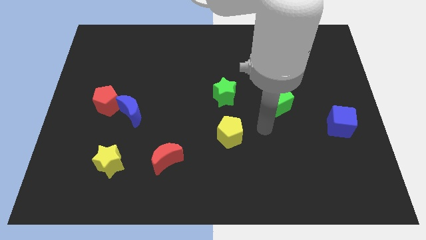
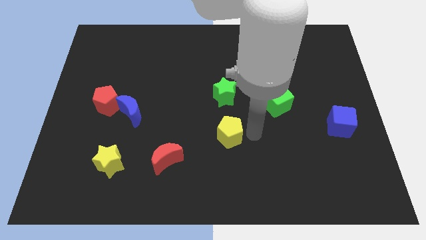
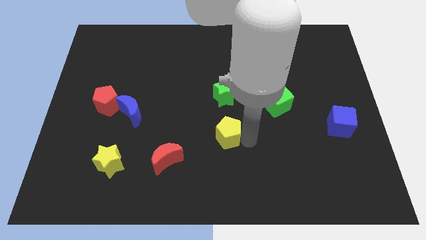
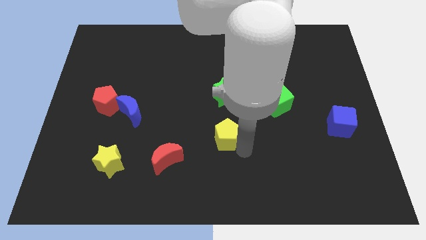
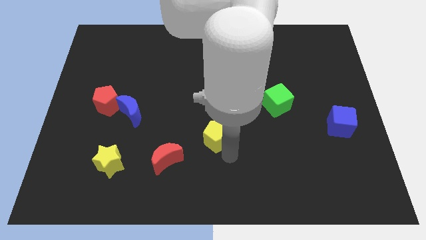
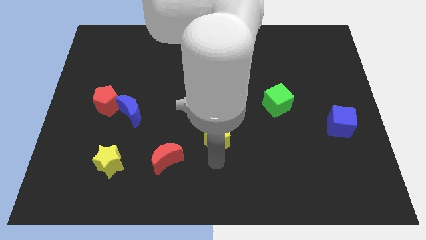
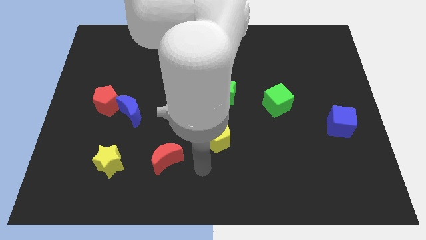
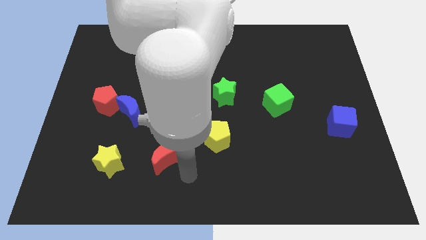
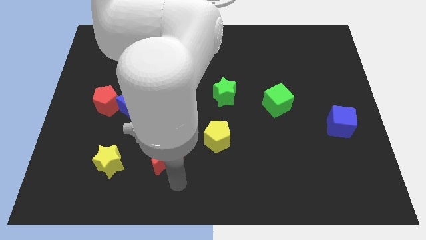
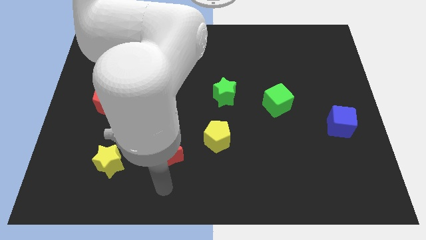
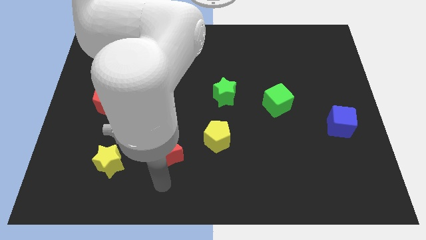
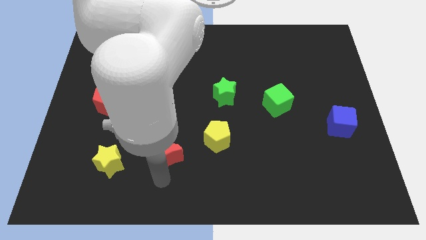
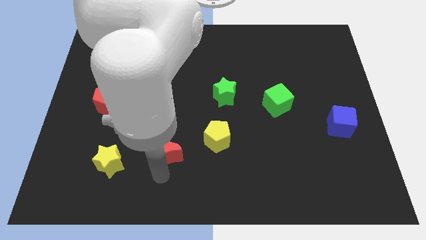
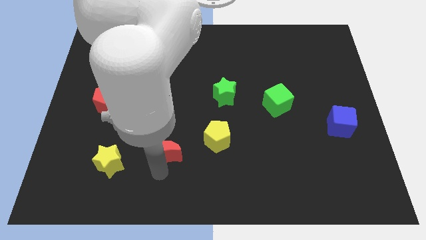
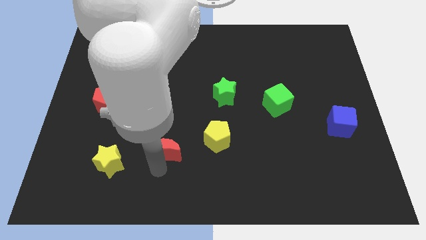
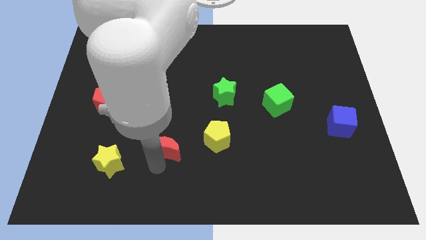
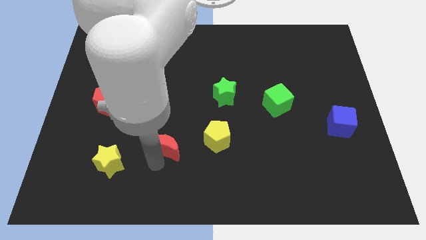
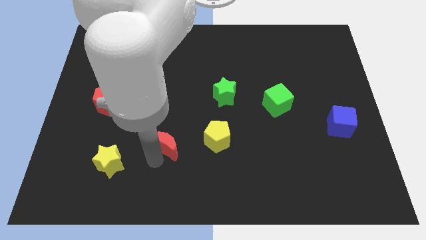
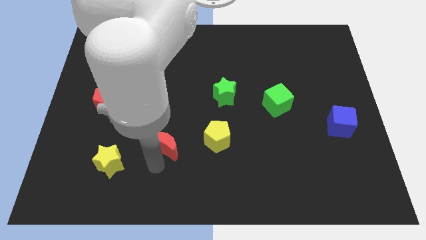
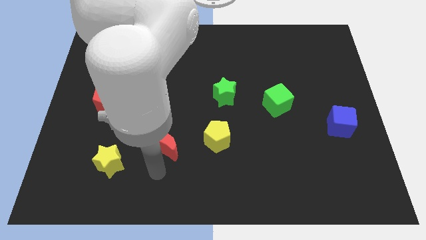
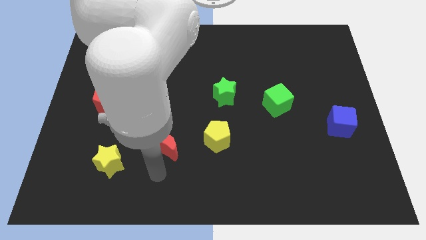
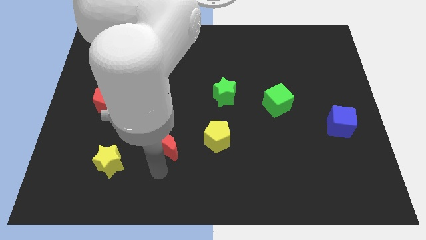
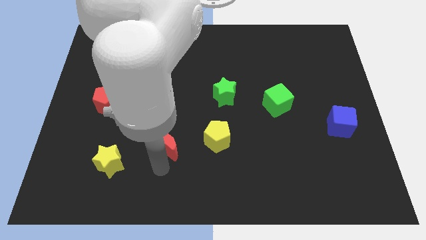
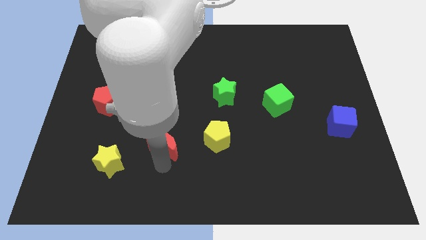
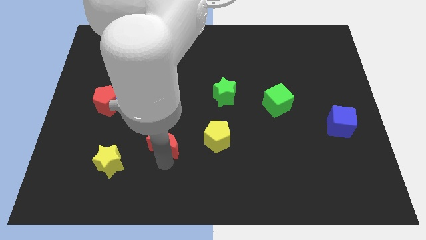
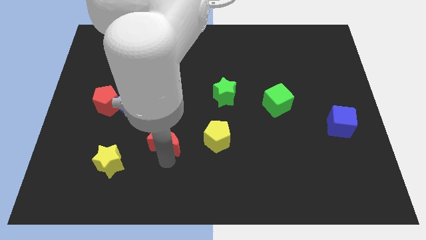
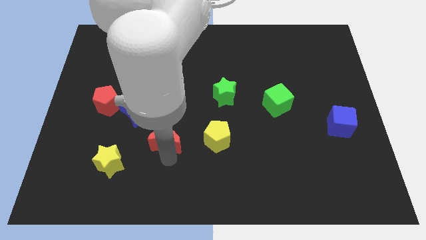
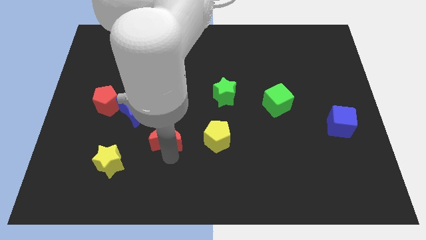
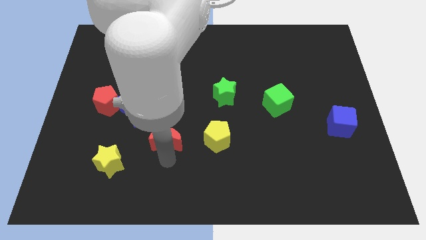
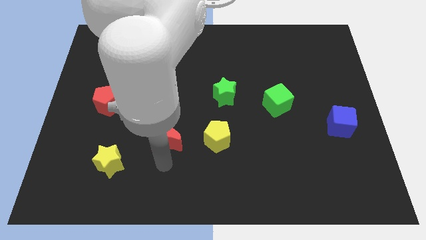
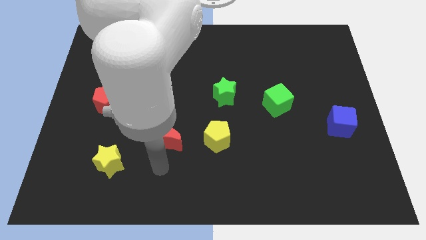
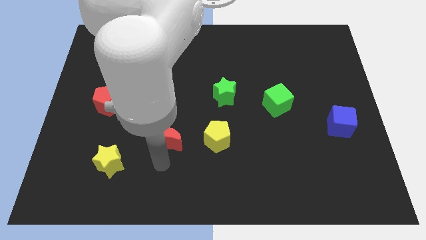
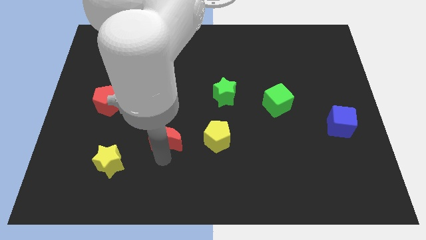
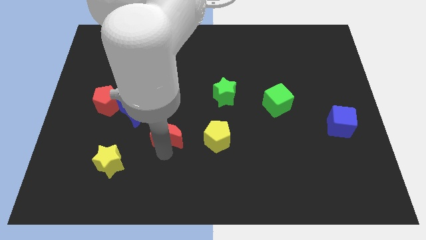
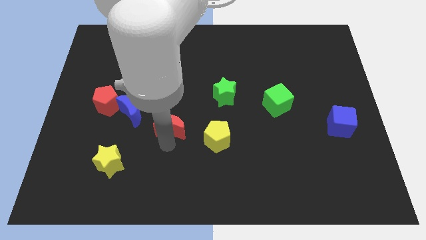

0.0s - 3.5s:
push the red moon slightly upwards

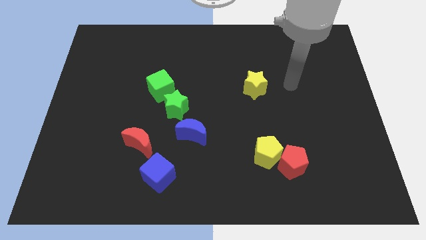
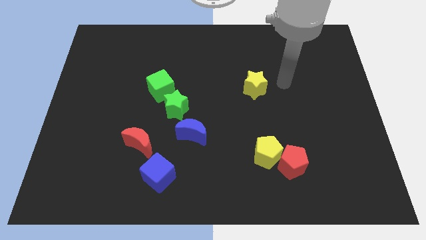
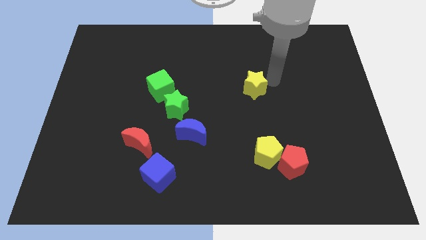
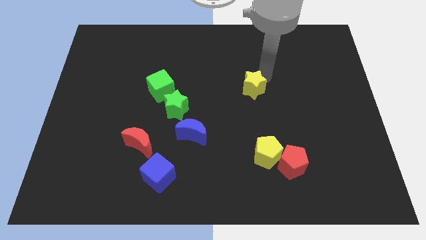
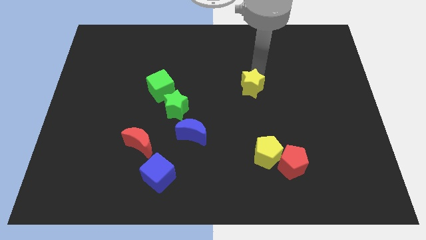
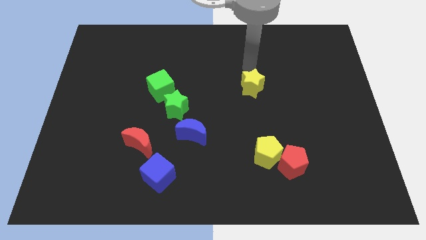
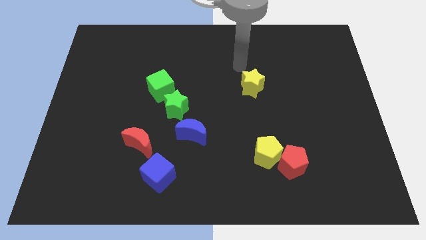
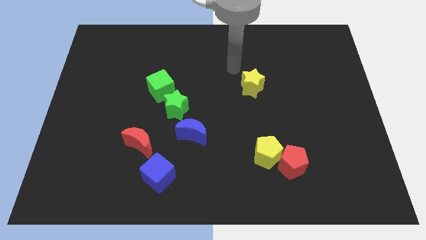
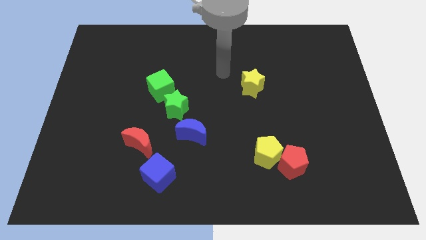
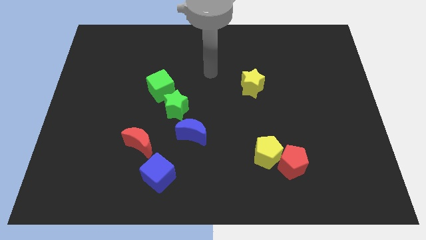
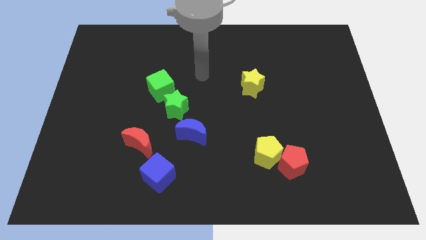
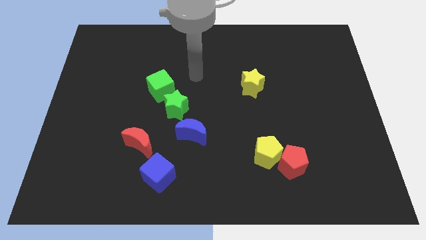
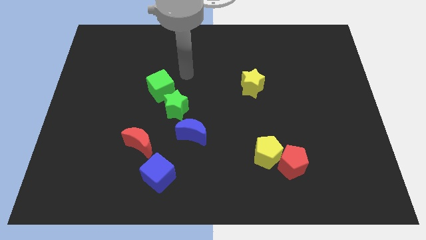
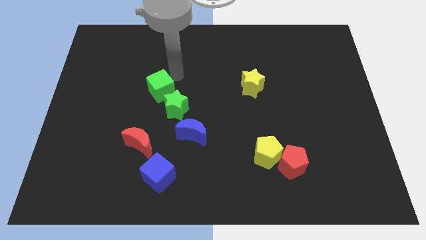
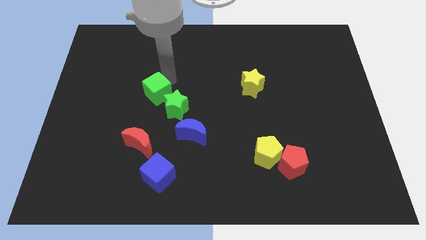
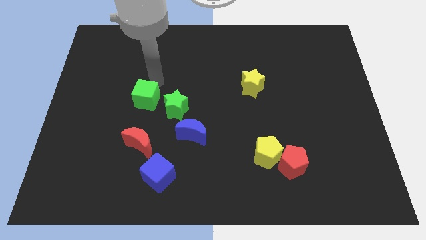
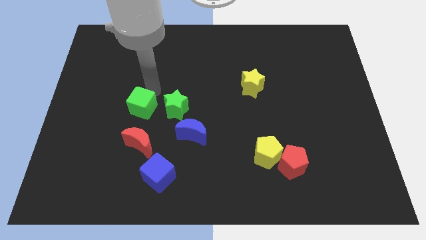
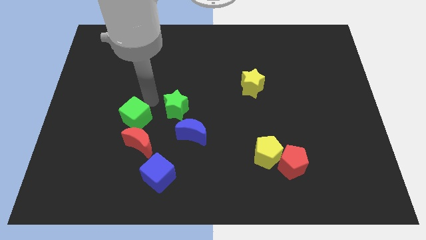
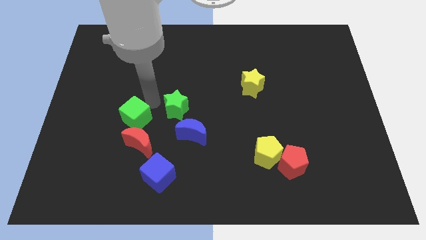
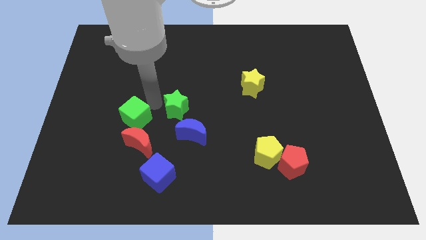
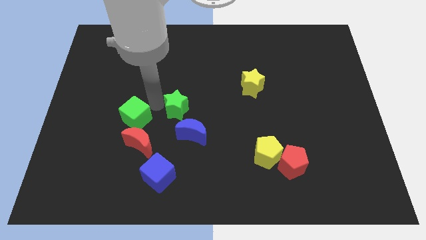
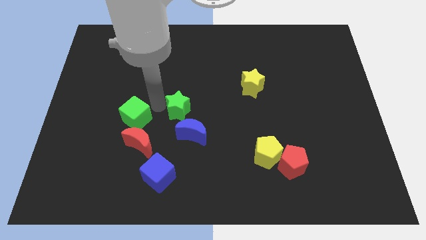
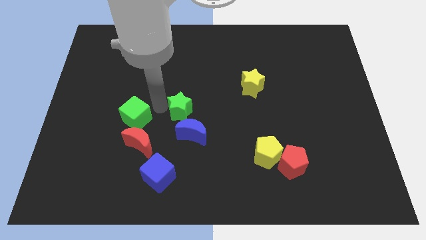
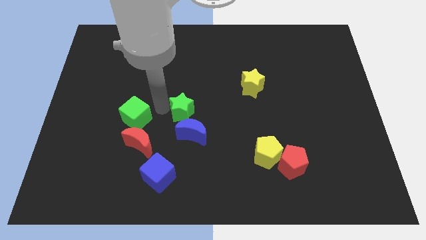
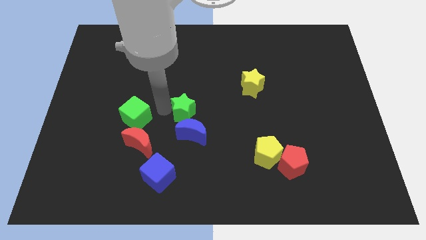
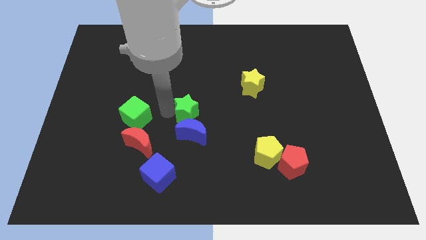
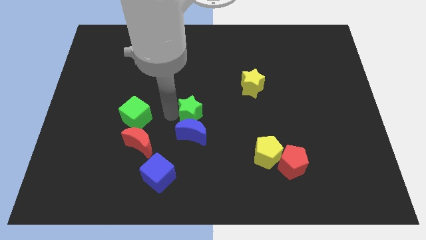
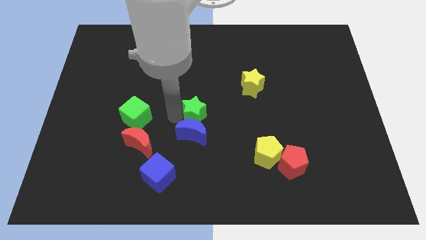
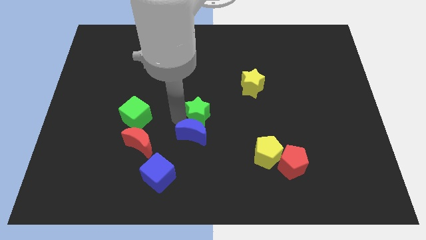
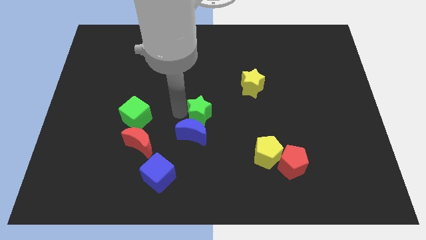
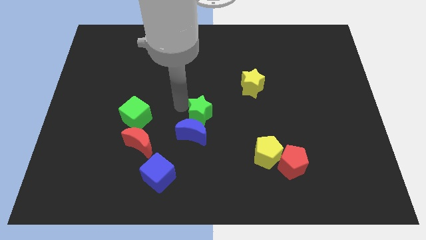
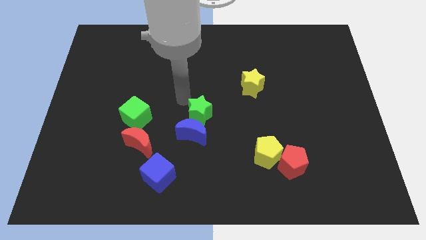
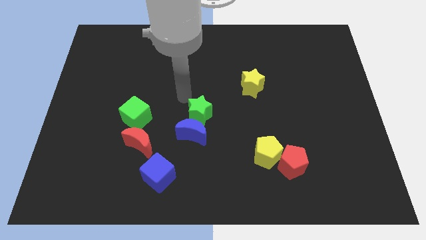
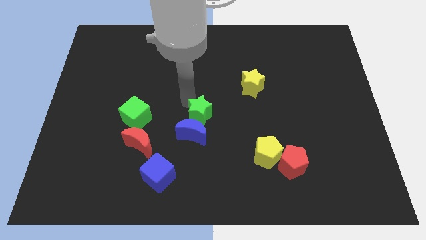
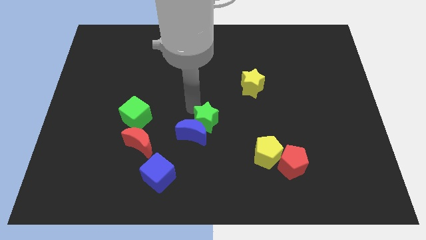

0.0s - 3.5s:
push the green star slightly down and right

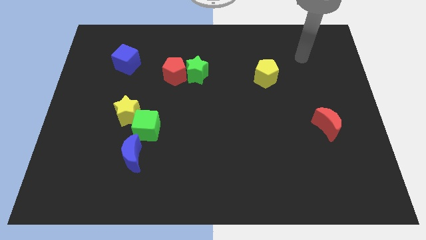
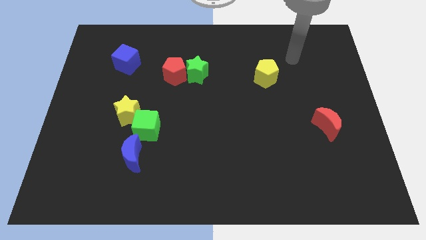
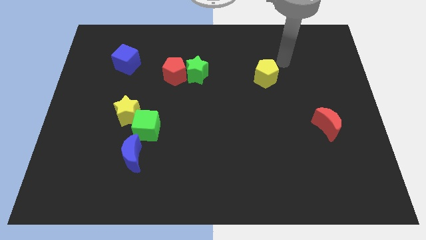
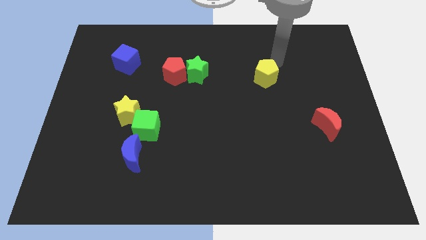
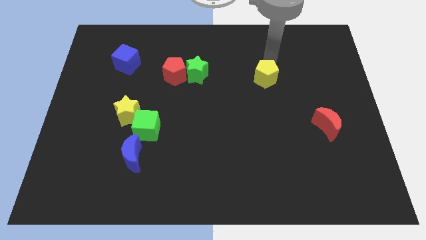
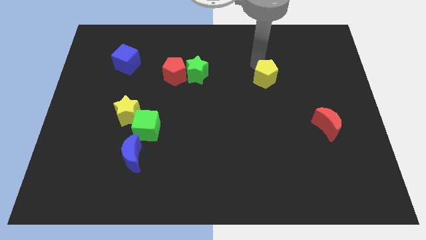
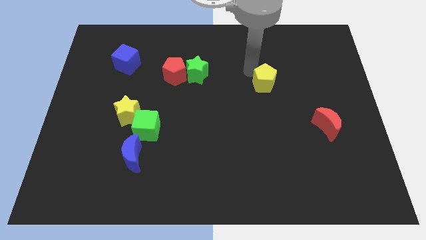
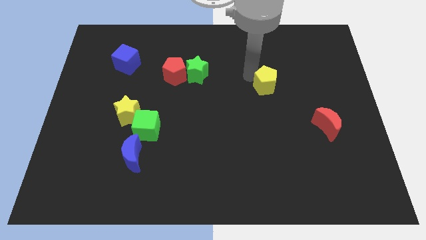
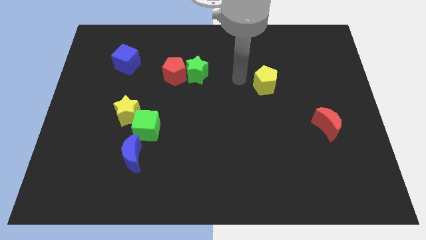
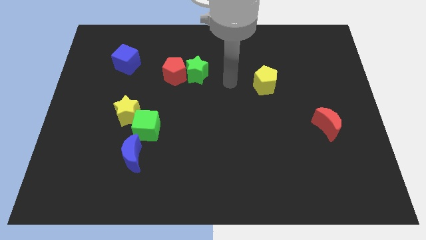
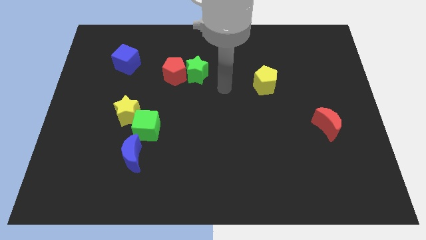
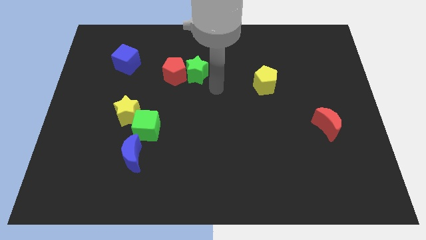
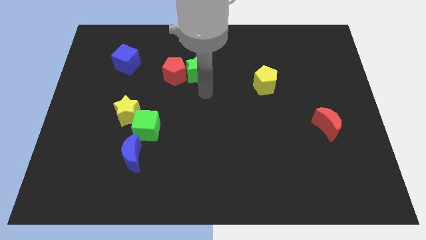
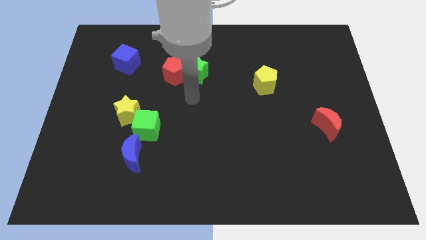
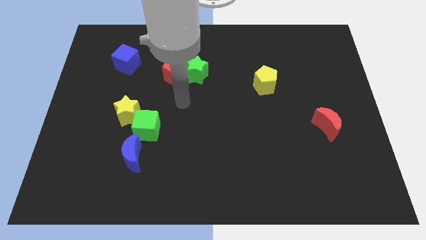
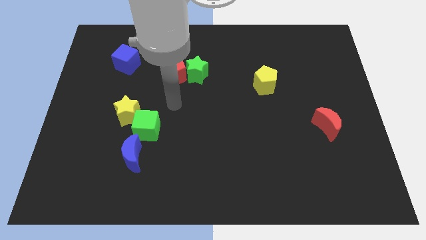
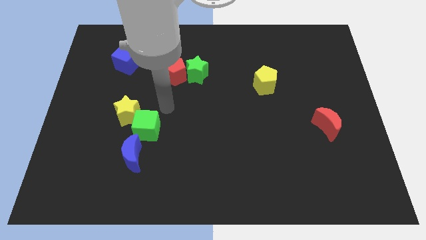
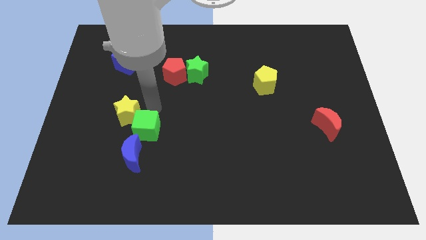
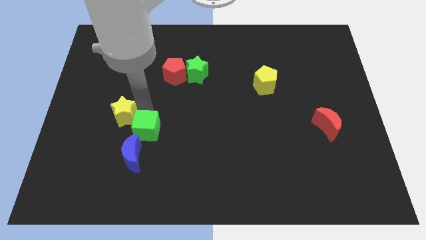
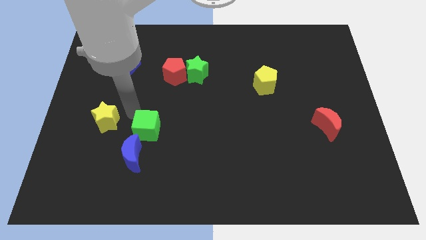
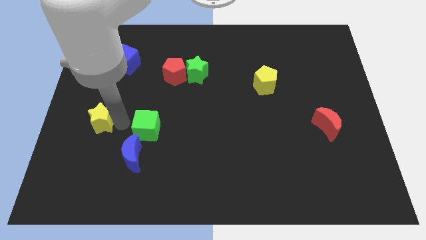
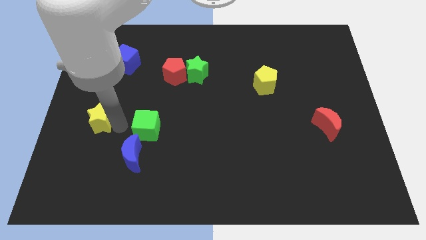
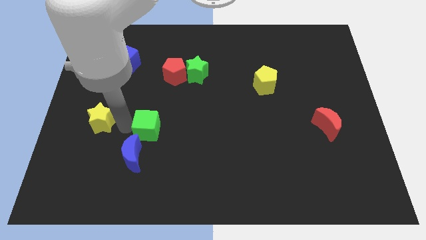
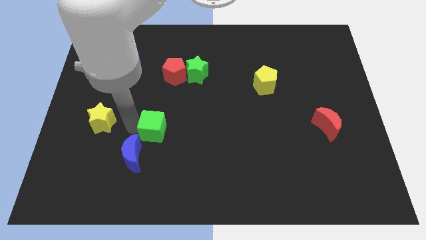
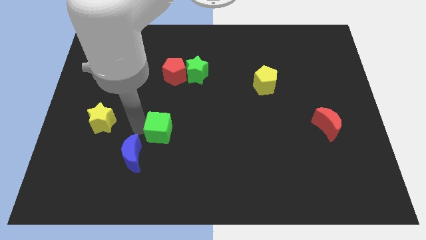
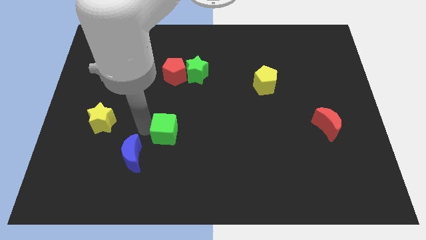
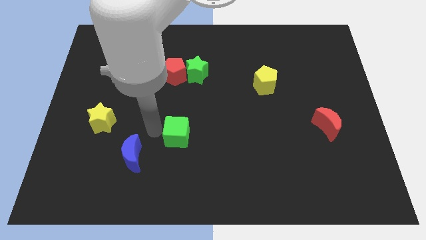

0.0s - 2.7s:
push the green cube slightly to the right
